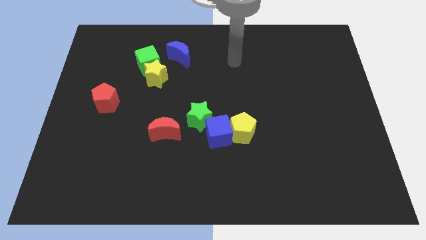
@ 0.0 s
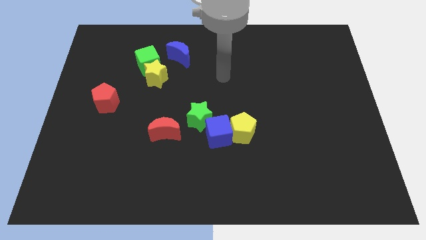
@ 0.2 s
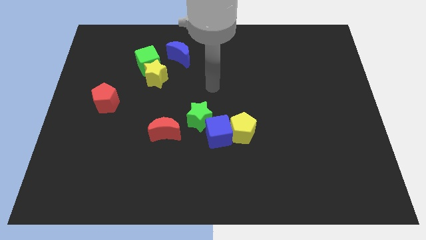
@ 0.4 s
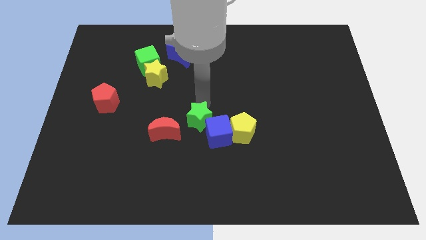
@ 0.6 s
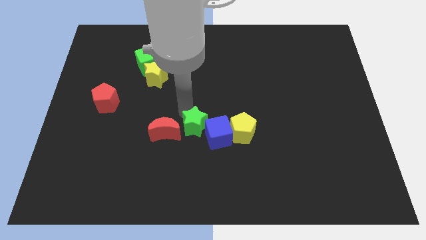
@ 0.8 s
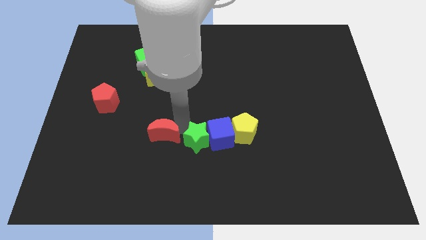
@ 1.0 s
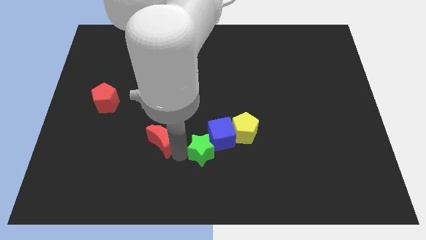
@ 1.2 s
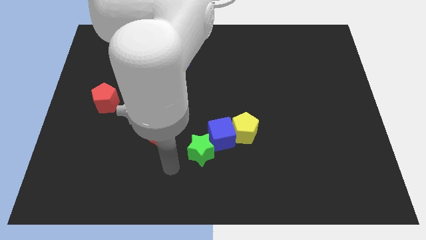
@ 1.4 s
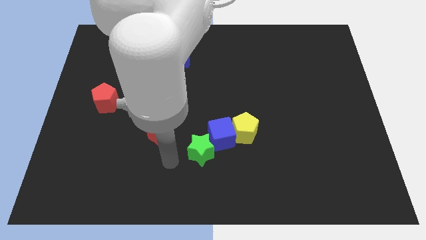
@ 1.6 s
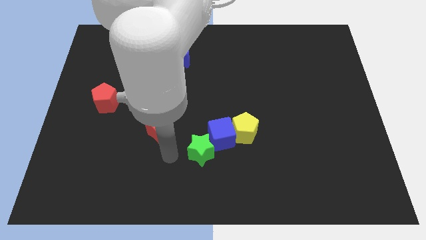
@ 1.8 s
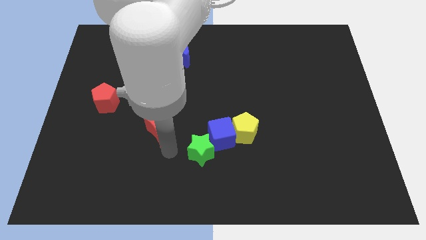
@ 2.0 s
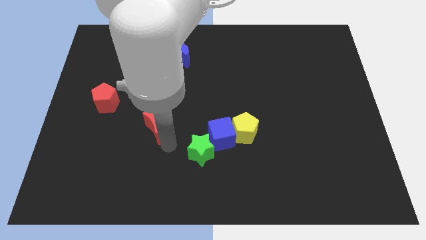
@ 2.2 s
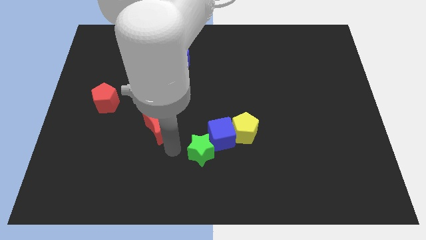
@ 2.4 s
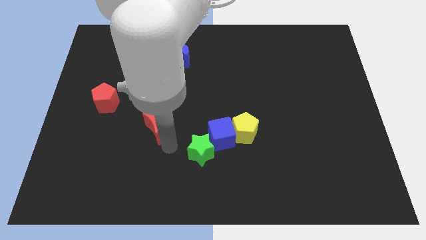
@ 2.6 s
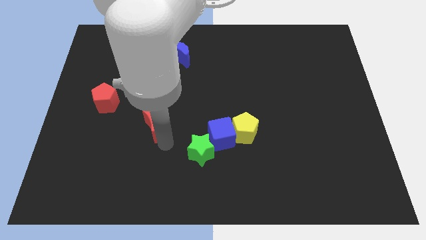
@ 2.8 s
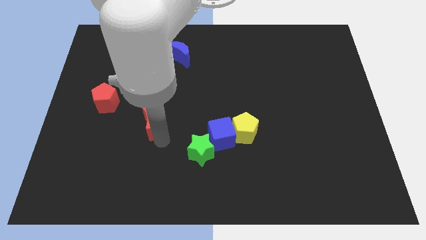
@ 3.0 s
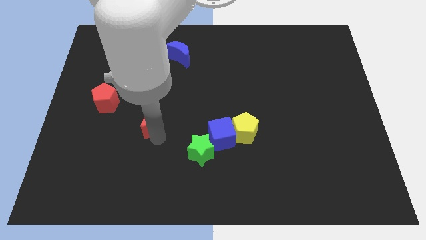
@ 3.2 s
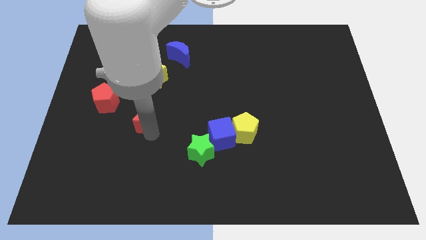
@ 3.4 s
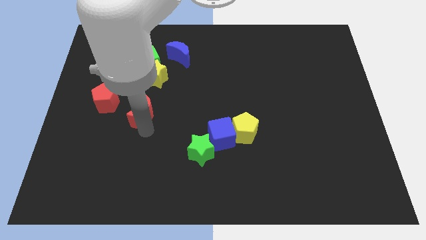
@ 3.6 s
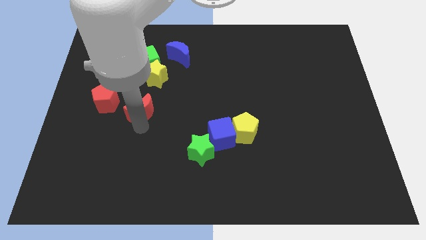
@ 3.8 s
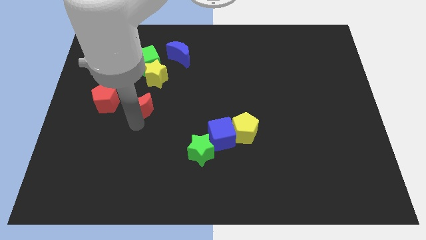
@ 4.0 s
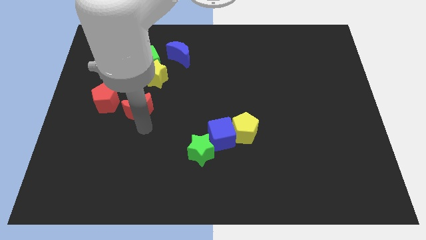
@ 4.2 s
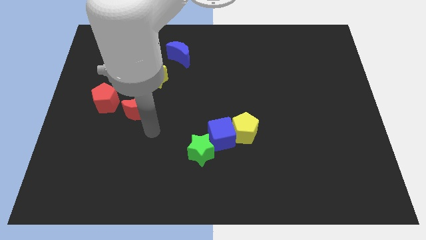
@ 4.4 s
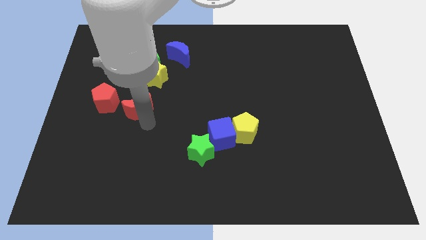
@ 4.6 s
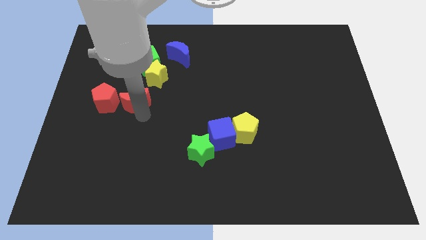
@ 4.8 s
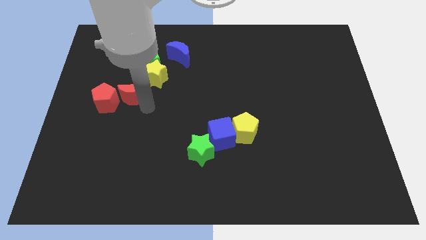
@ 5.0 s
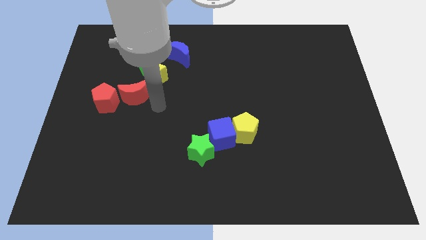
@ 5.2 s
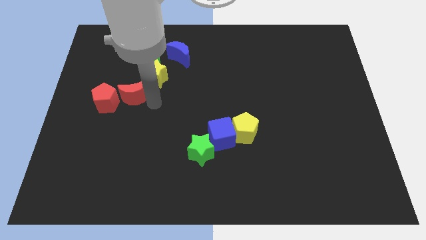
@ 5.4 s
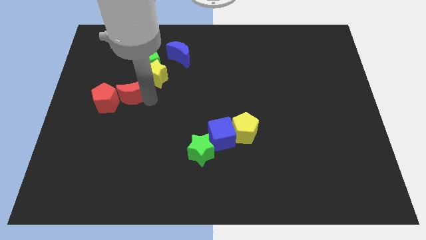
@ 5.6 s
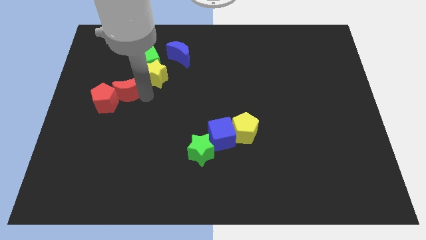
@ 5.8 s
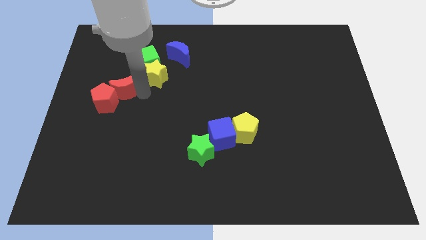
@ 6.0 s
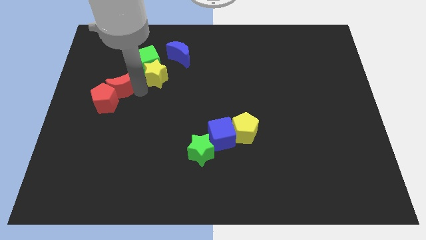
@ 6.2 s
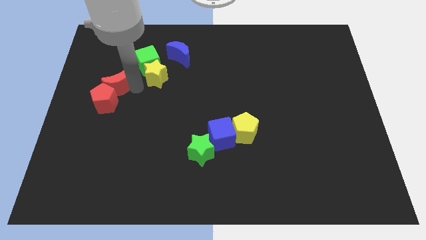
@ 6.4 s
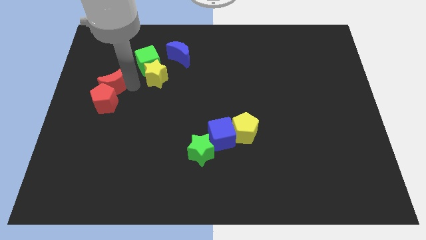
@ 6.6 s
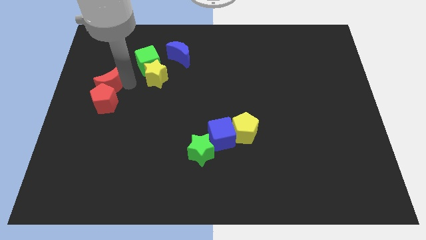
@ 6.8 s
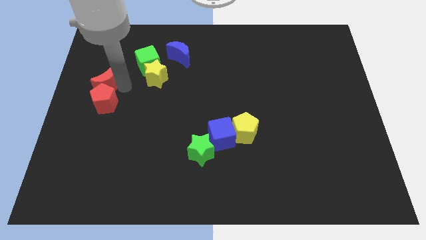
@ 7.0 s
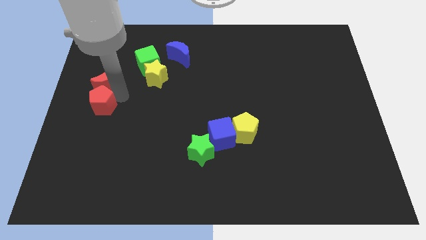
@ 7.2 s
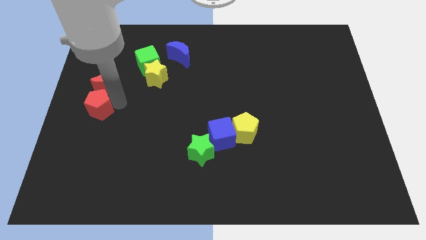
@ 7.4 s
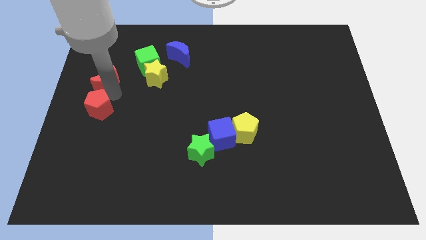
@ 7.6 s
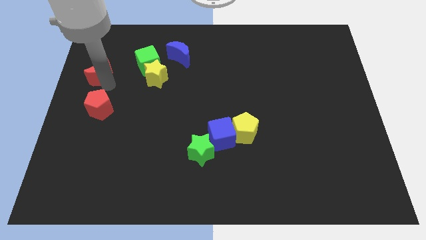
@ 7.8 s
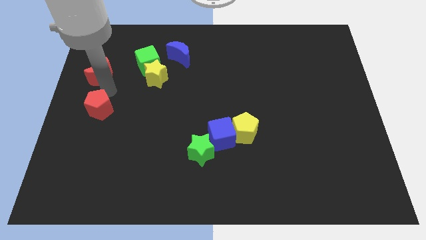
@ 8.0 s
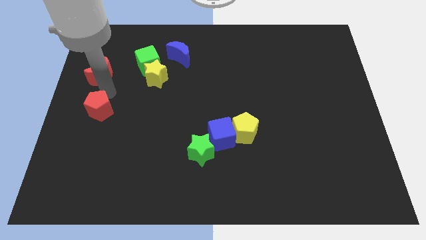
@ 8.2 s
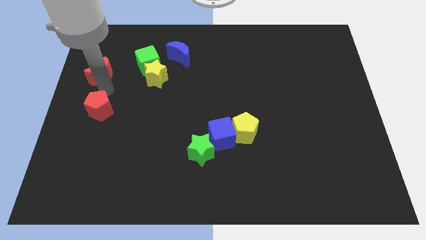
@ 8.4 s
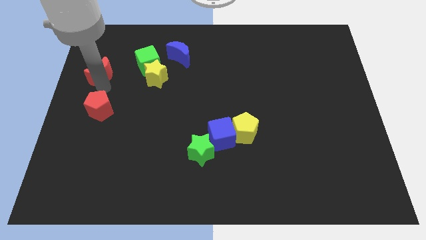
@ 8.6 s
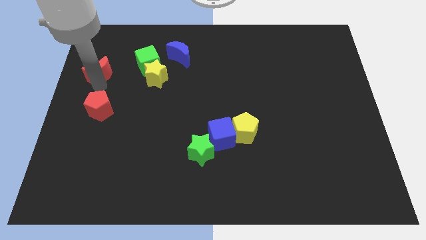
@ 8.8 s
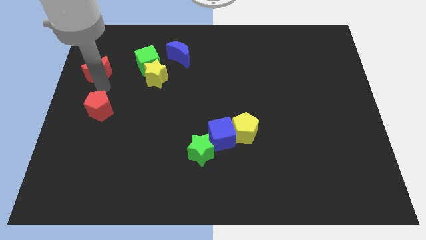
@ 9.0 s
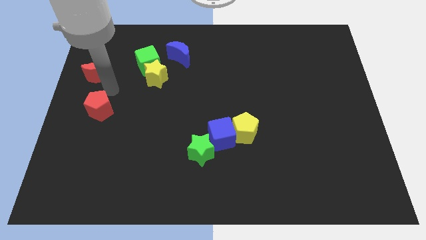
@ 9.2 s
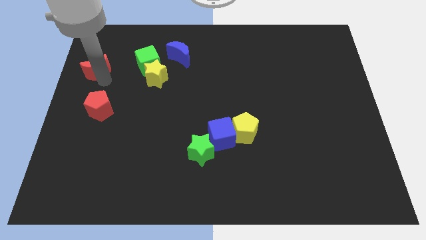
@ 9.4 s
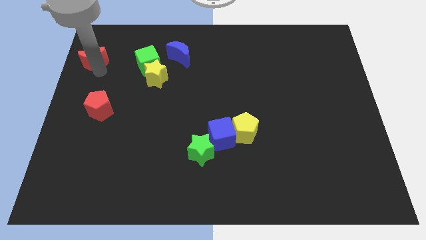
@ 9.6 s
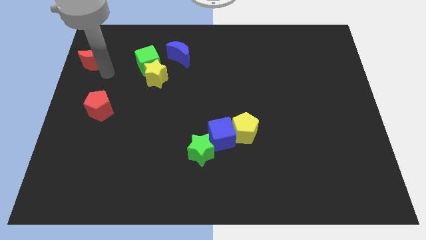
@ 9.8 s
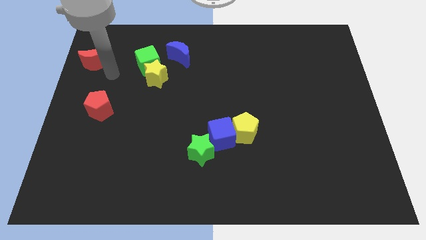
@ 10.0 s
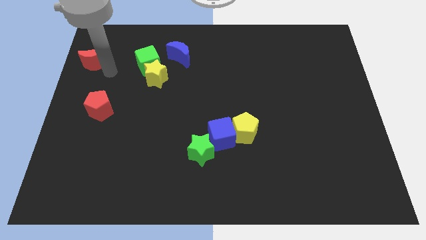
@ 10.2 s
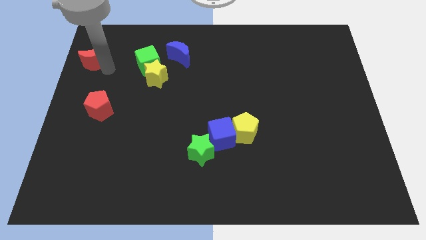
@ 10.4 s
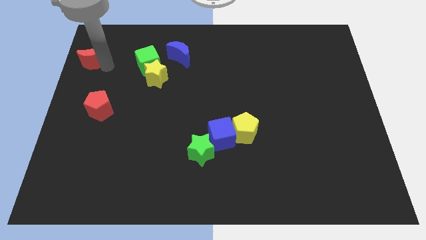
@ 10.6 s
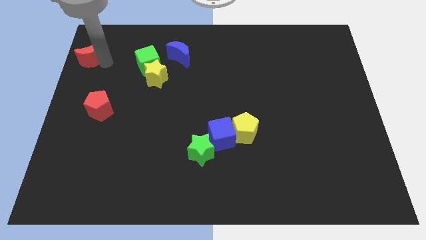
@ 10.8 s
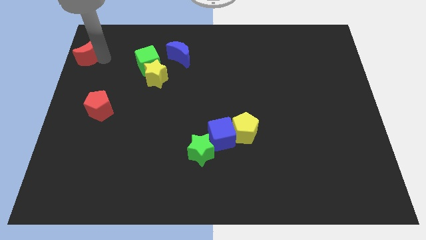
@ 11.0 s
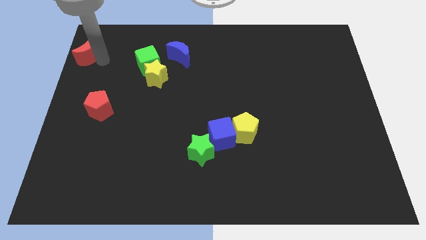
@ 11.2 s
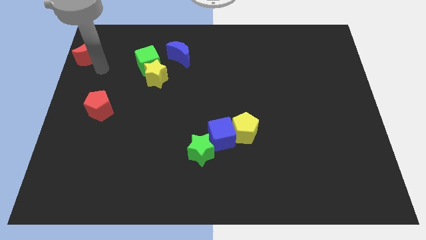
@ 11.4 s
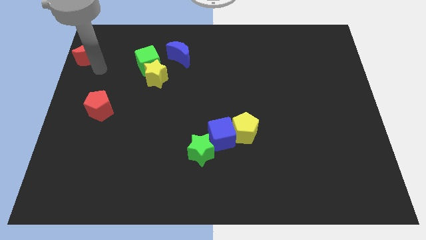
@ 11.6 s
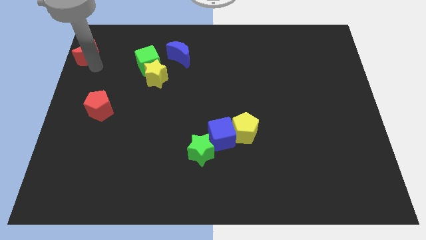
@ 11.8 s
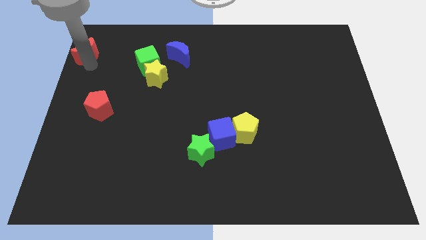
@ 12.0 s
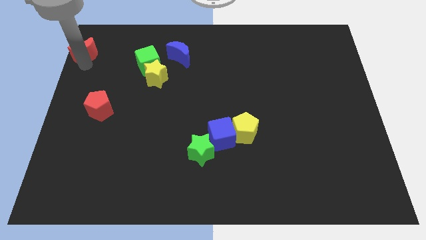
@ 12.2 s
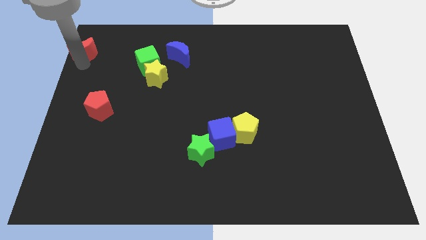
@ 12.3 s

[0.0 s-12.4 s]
push the red moon to the top left of the board

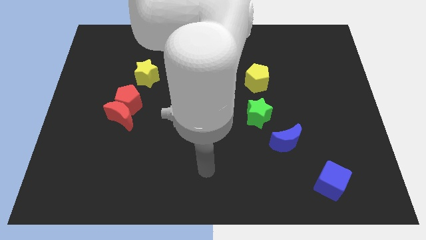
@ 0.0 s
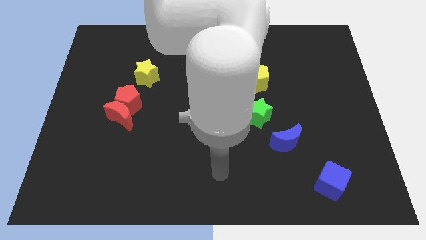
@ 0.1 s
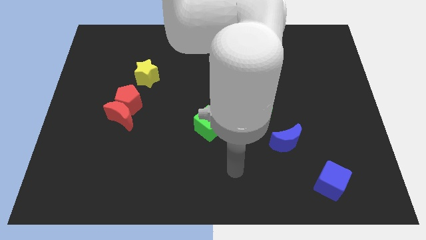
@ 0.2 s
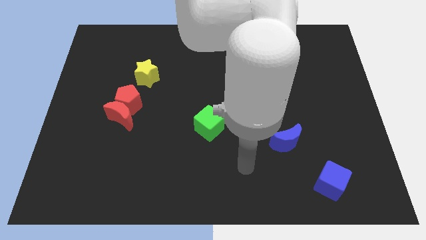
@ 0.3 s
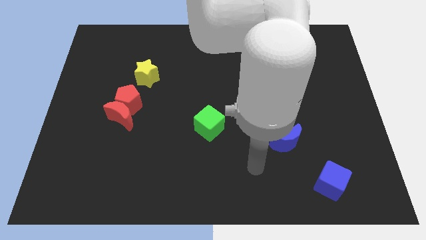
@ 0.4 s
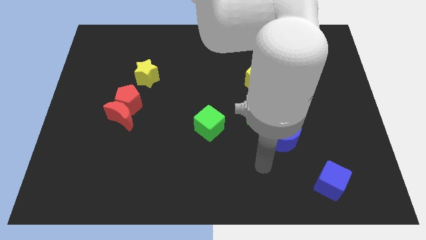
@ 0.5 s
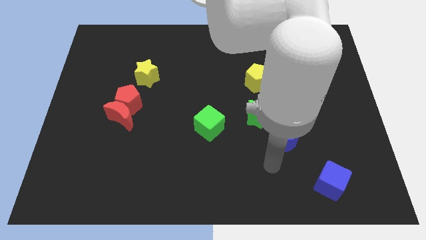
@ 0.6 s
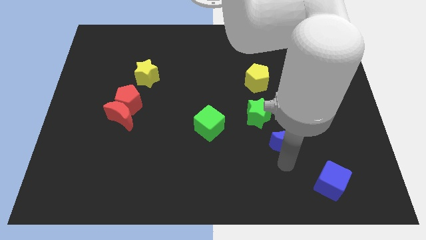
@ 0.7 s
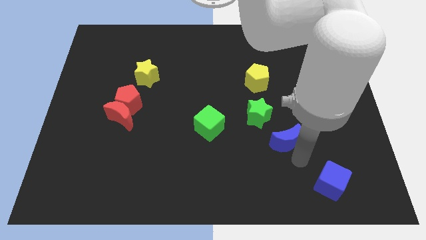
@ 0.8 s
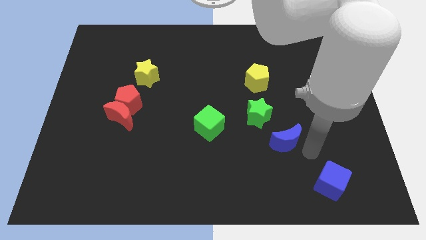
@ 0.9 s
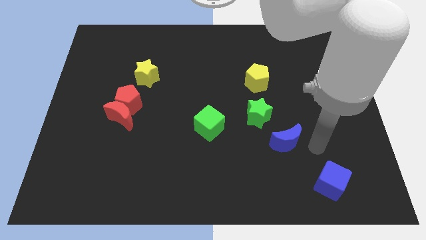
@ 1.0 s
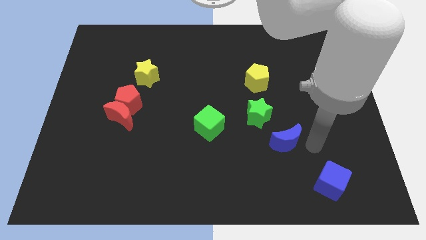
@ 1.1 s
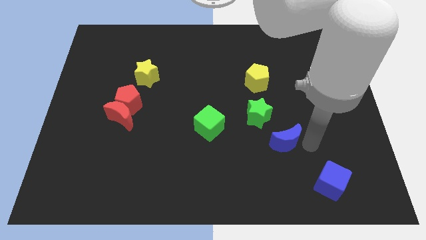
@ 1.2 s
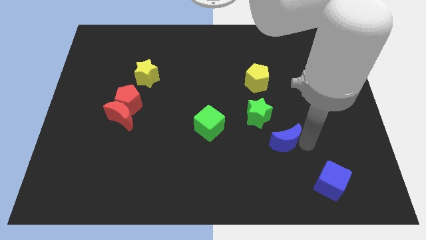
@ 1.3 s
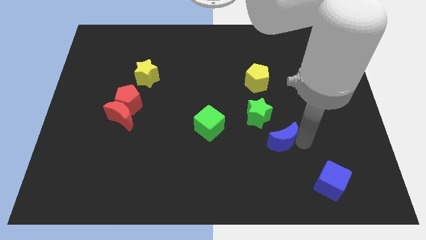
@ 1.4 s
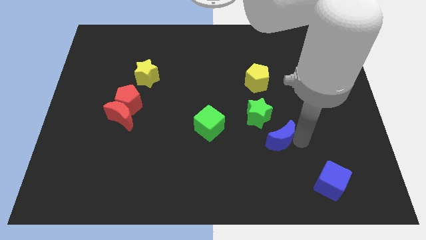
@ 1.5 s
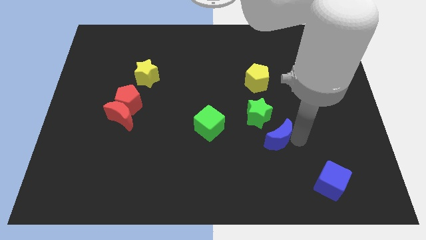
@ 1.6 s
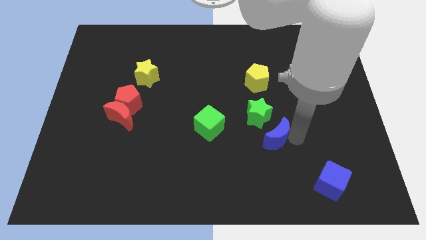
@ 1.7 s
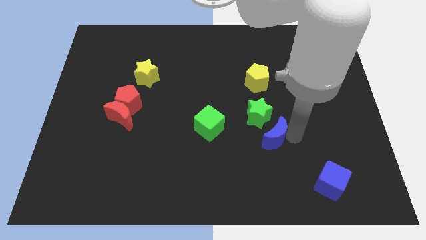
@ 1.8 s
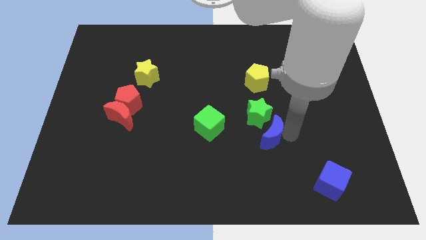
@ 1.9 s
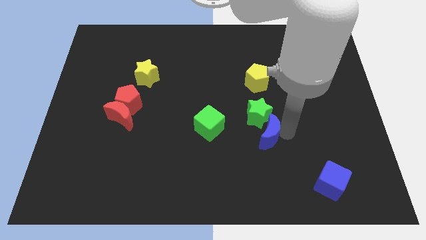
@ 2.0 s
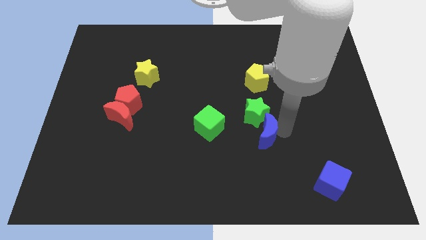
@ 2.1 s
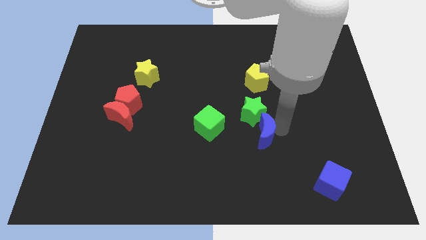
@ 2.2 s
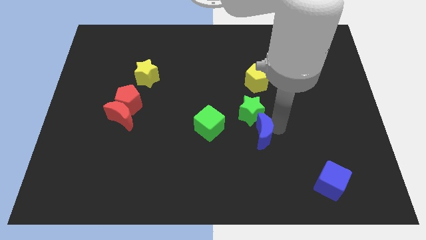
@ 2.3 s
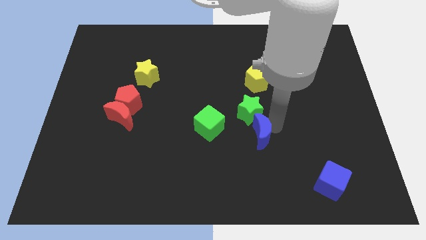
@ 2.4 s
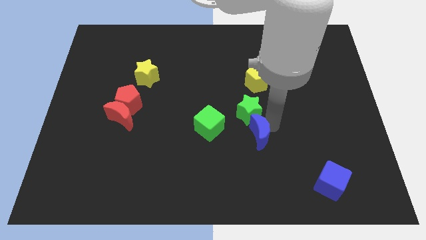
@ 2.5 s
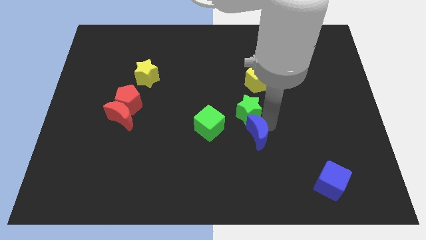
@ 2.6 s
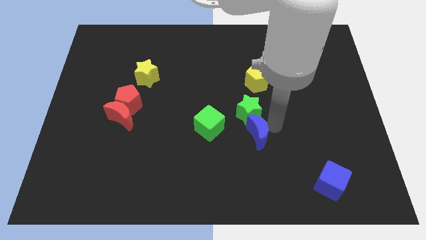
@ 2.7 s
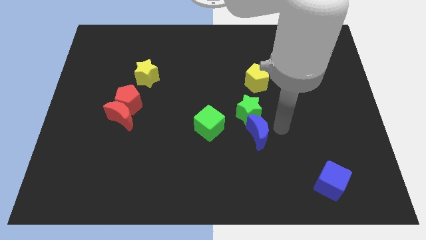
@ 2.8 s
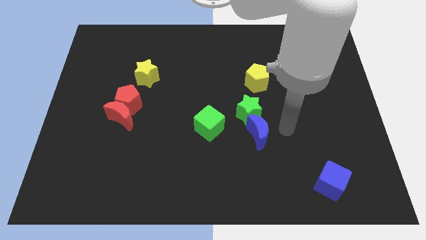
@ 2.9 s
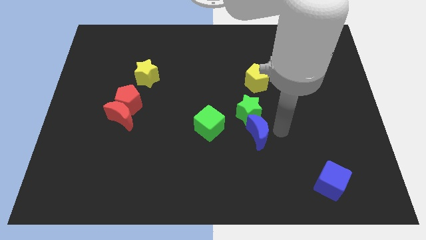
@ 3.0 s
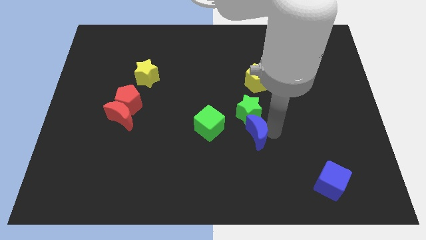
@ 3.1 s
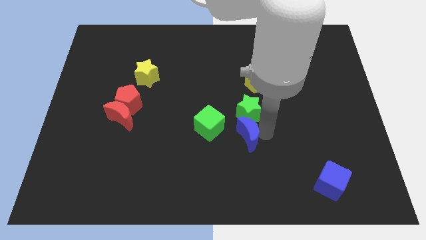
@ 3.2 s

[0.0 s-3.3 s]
push the blue moon to the middle of the board
